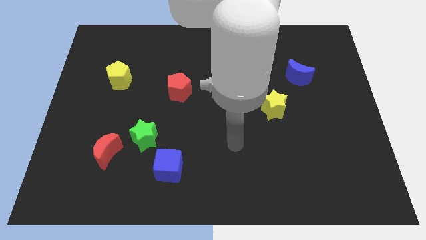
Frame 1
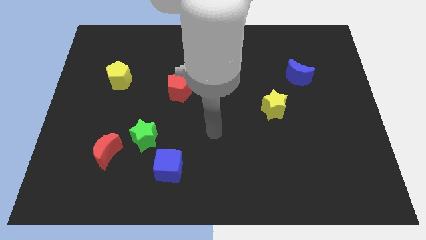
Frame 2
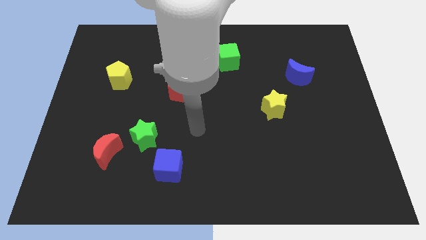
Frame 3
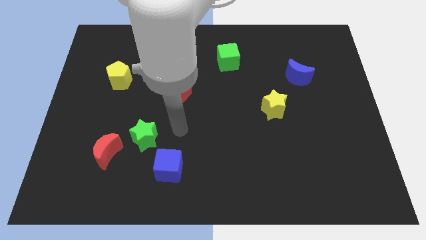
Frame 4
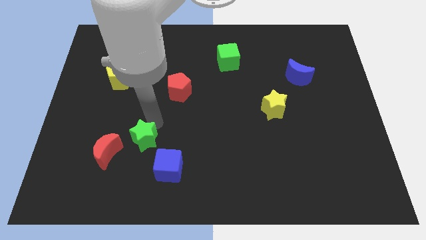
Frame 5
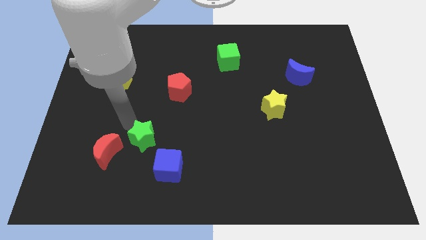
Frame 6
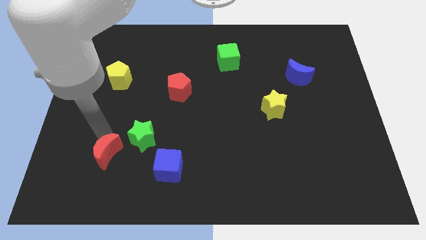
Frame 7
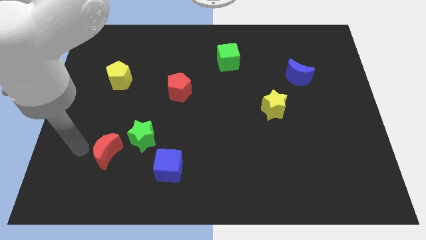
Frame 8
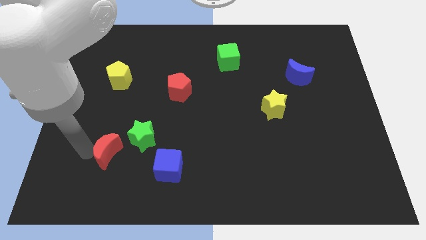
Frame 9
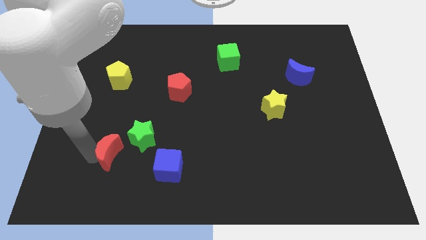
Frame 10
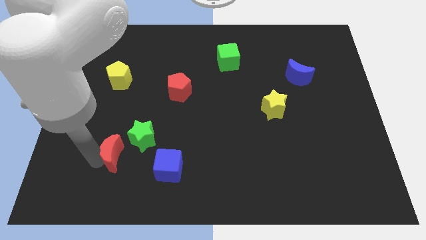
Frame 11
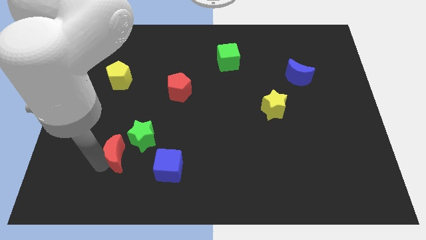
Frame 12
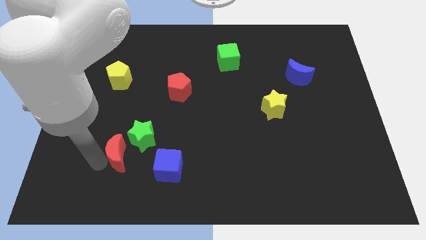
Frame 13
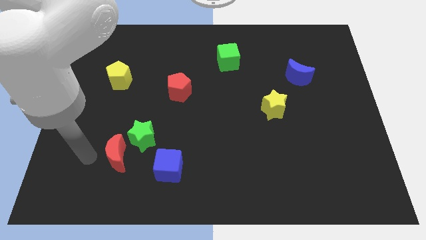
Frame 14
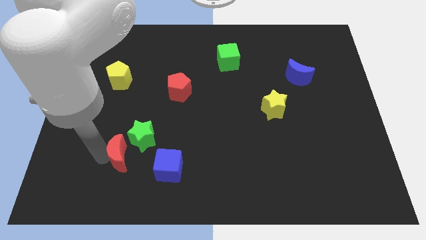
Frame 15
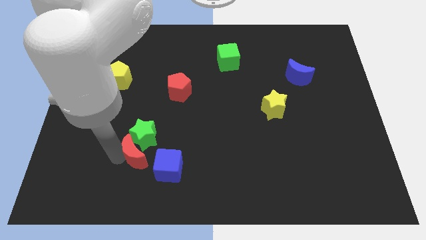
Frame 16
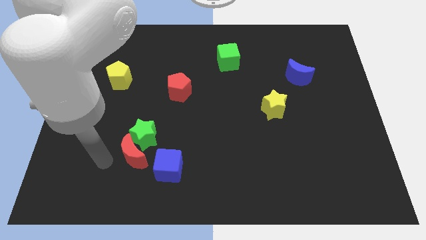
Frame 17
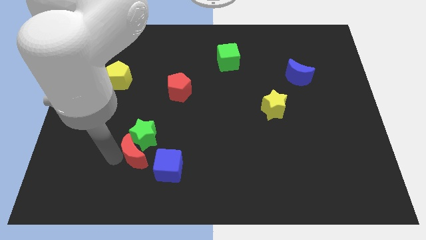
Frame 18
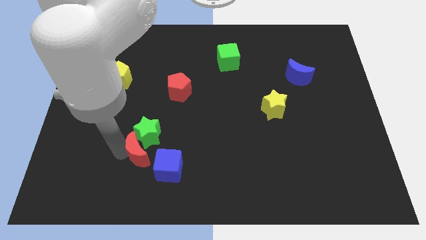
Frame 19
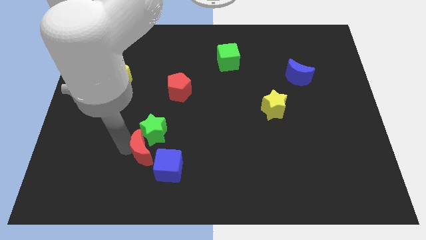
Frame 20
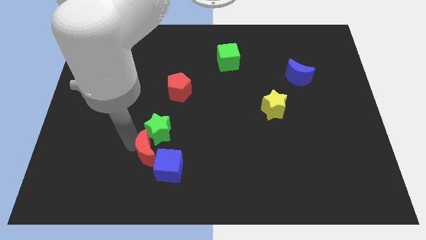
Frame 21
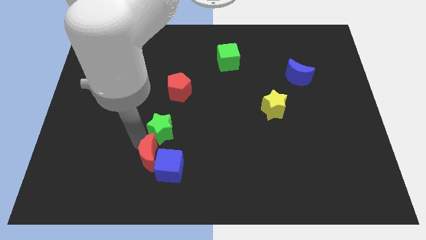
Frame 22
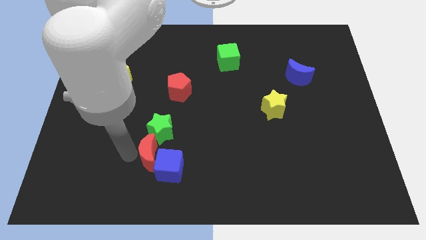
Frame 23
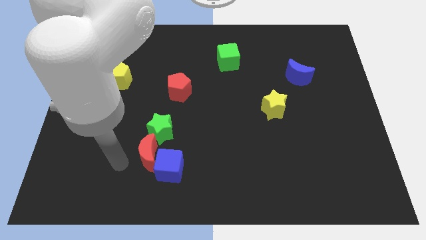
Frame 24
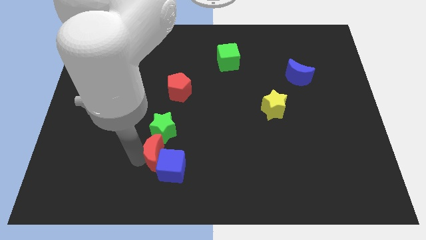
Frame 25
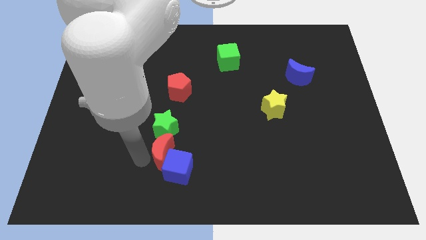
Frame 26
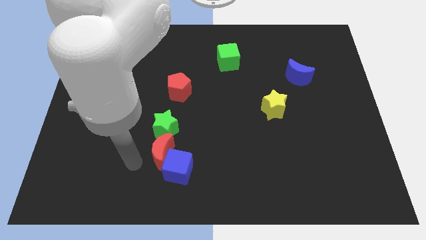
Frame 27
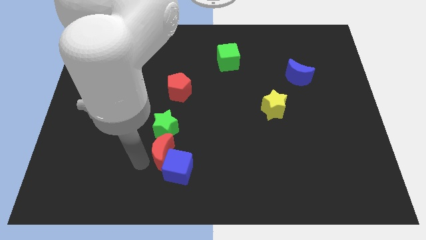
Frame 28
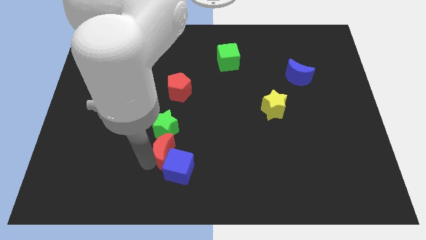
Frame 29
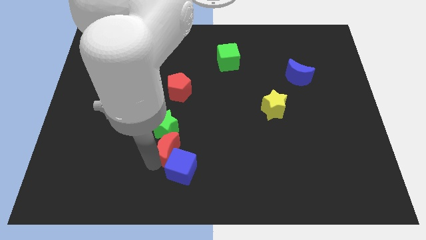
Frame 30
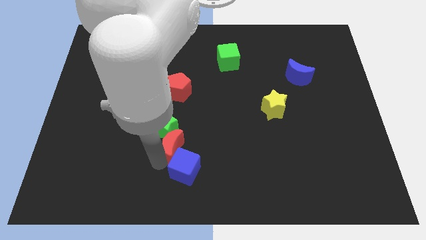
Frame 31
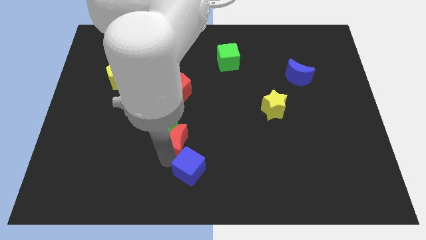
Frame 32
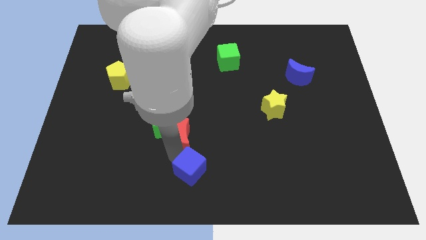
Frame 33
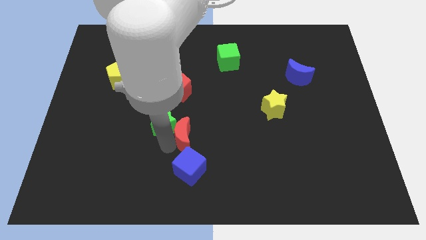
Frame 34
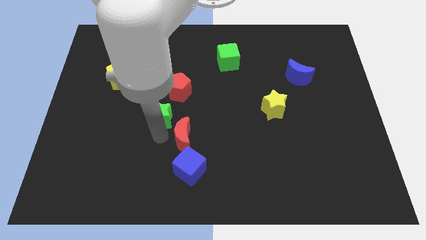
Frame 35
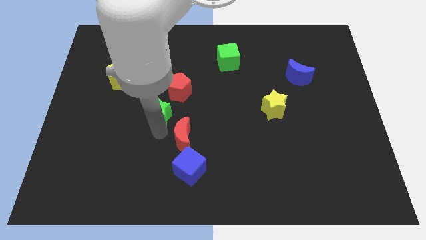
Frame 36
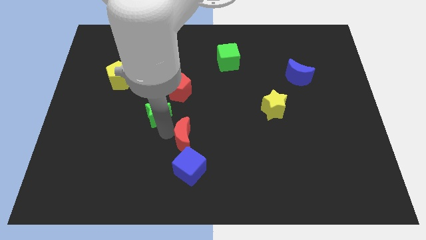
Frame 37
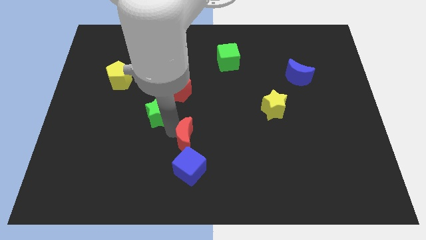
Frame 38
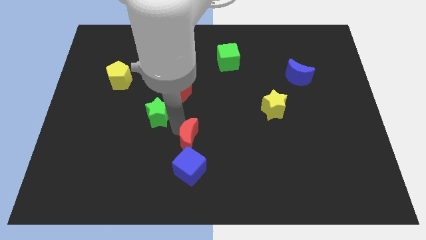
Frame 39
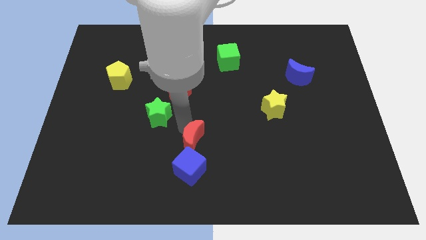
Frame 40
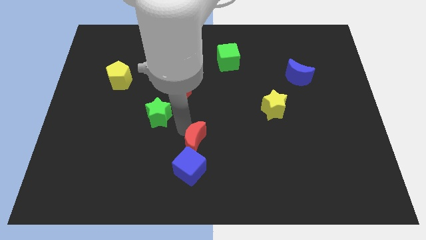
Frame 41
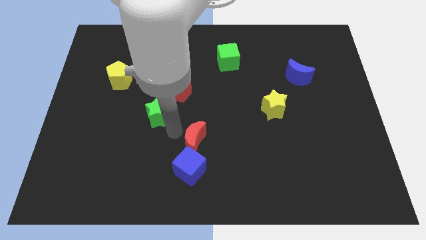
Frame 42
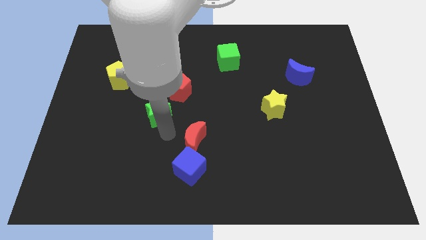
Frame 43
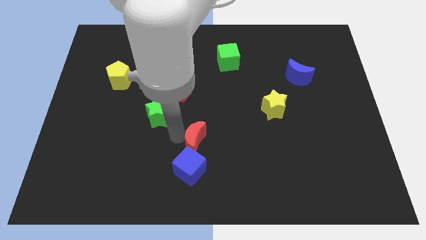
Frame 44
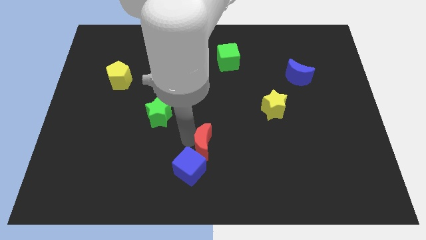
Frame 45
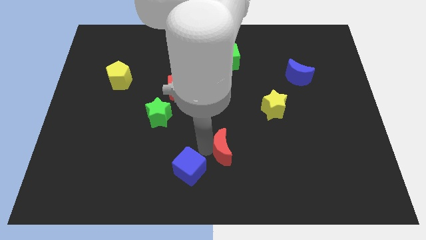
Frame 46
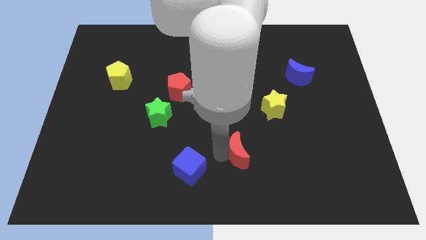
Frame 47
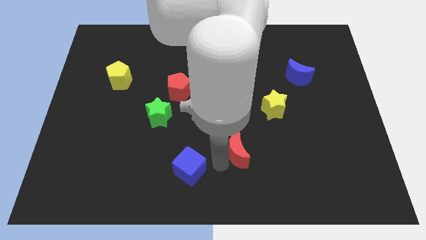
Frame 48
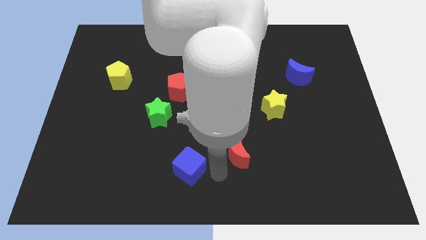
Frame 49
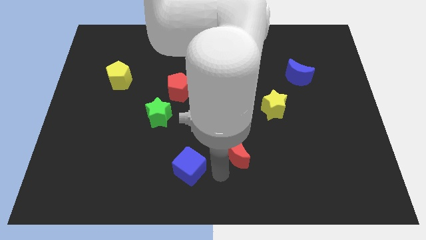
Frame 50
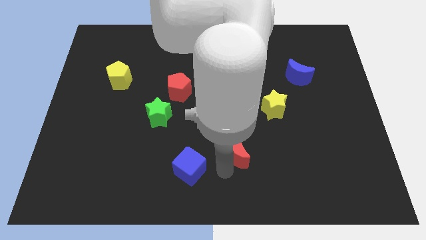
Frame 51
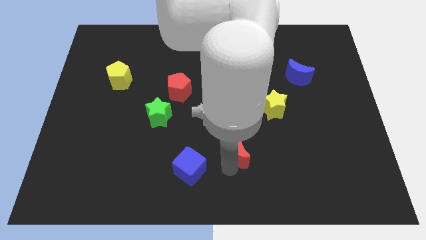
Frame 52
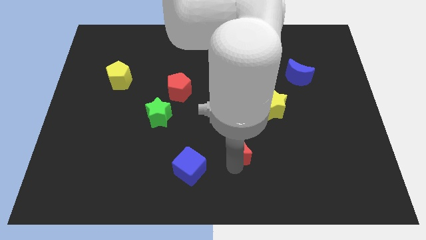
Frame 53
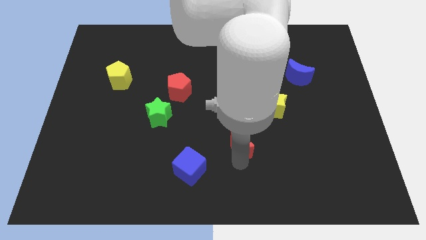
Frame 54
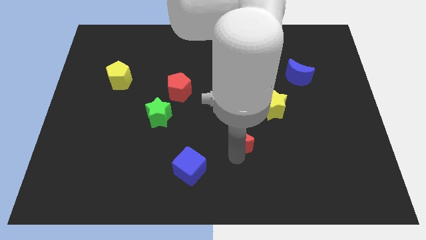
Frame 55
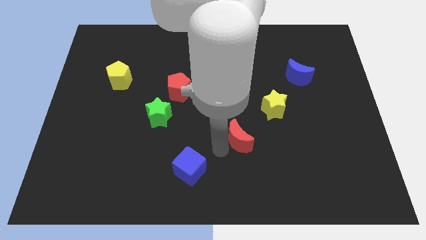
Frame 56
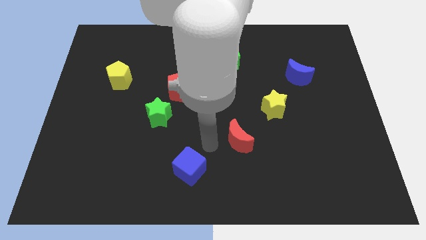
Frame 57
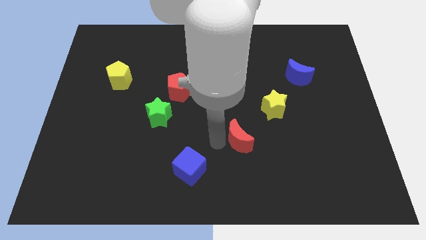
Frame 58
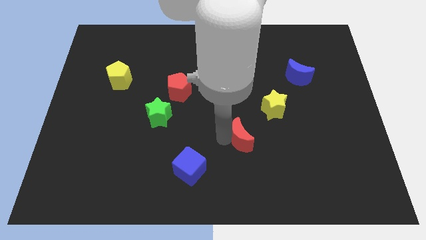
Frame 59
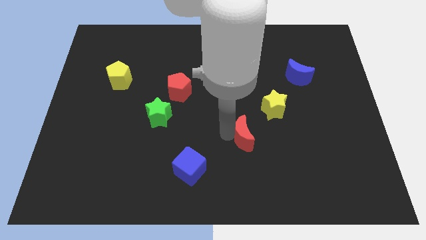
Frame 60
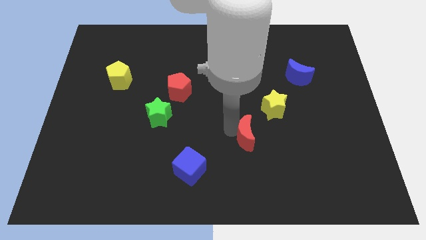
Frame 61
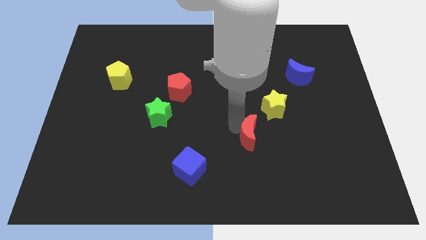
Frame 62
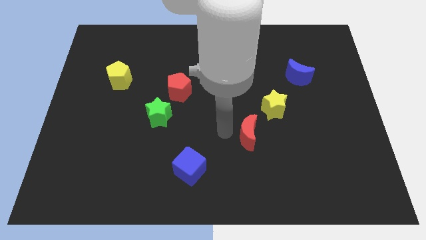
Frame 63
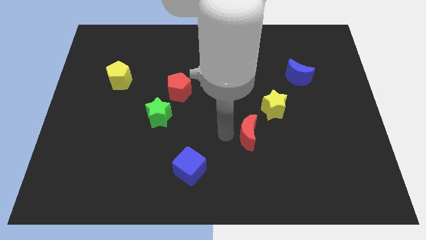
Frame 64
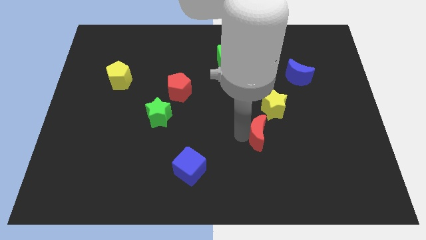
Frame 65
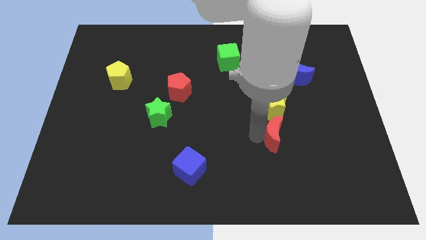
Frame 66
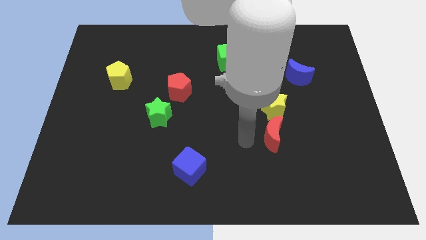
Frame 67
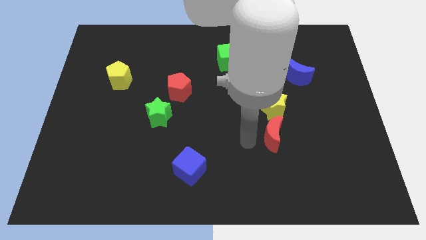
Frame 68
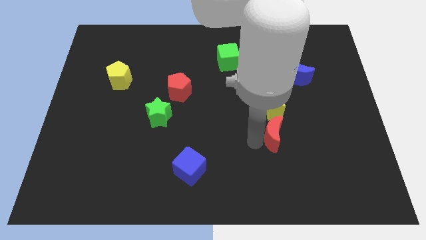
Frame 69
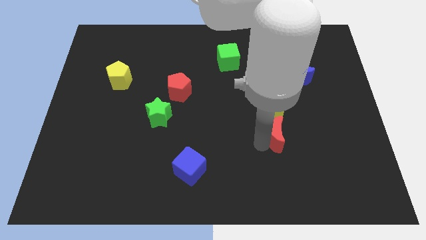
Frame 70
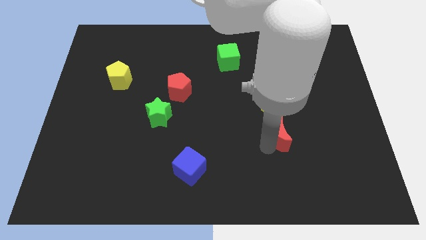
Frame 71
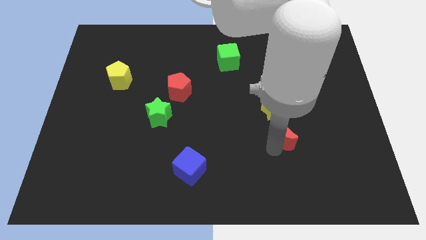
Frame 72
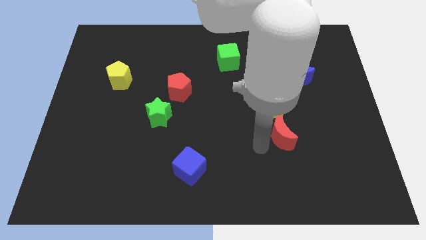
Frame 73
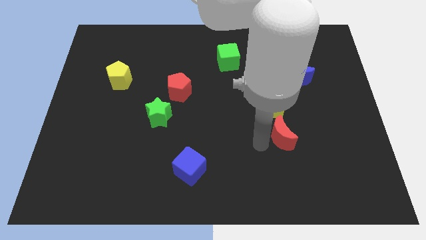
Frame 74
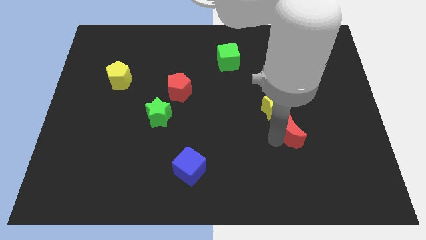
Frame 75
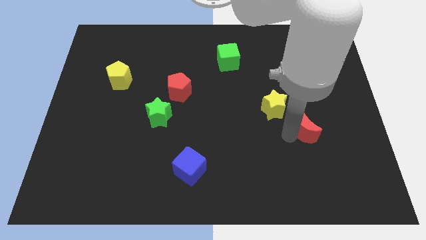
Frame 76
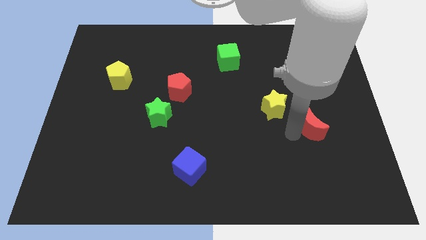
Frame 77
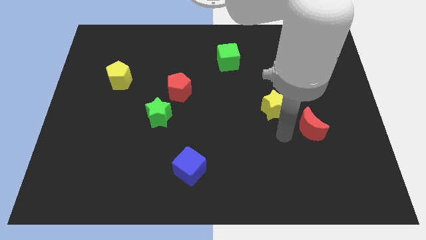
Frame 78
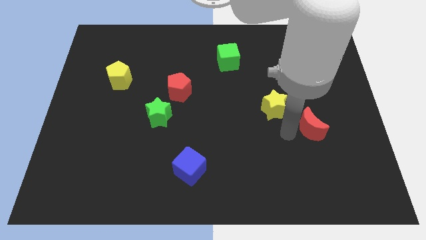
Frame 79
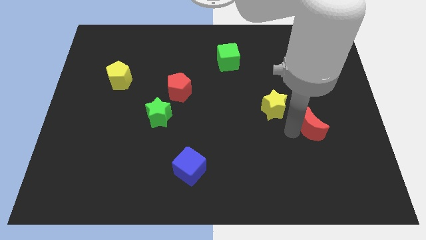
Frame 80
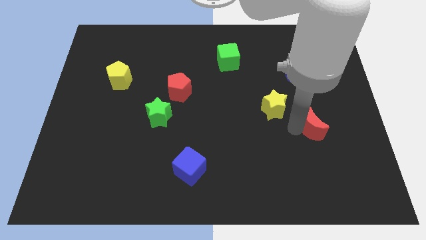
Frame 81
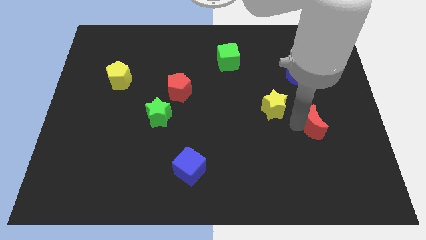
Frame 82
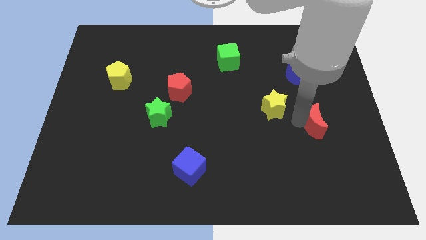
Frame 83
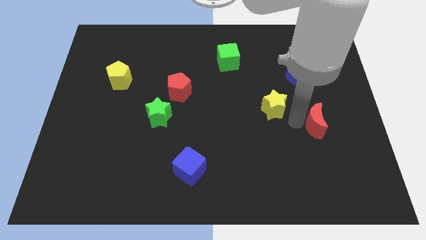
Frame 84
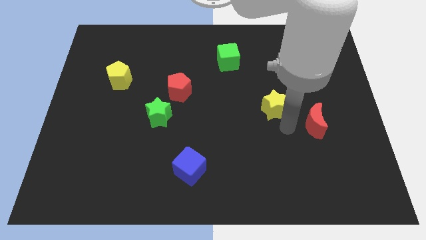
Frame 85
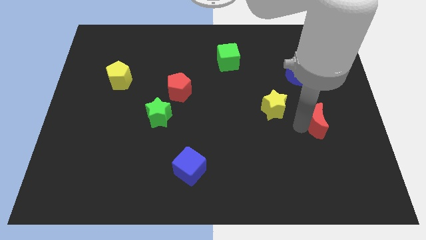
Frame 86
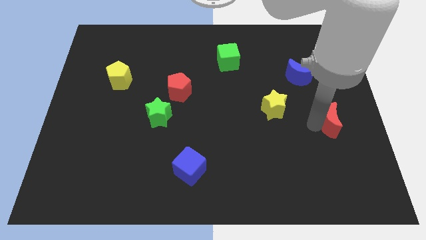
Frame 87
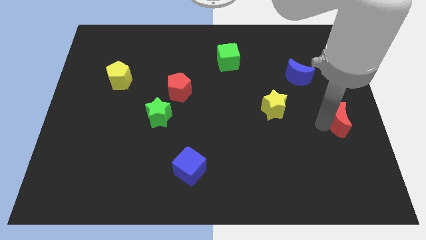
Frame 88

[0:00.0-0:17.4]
slide the red moon to the right side of the board
